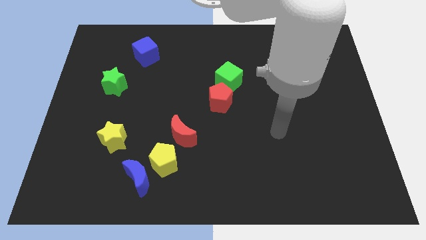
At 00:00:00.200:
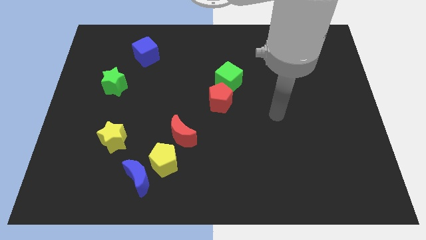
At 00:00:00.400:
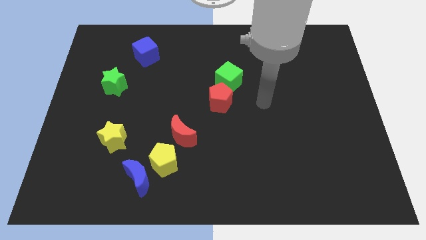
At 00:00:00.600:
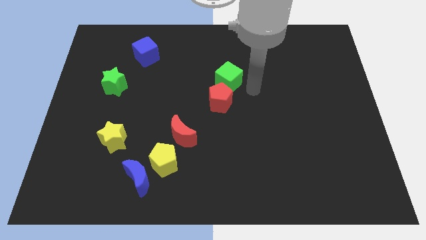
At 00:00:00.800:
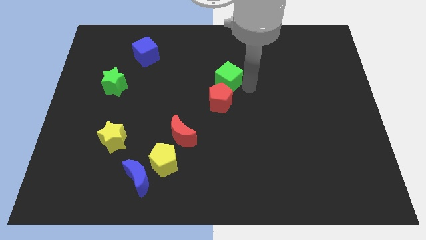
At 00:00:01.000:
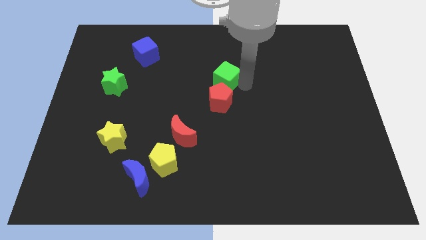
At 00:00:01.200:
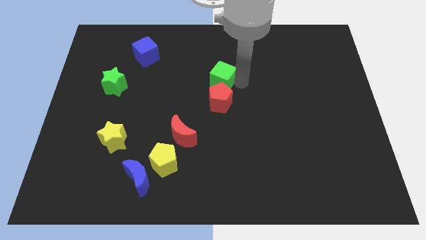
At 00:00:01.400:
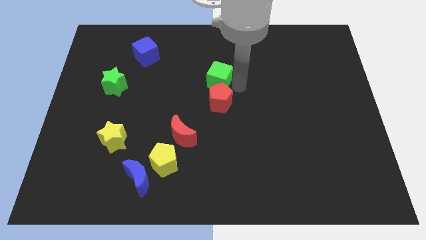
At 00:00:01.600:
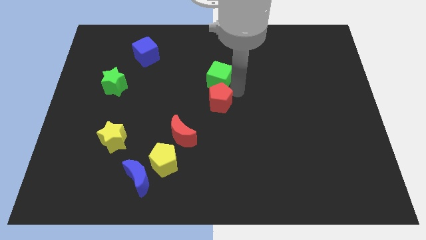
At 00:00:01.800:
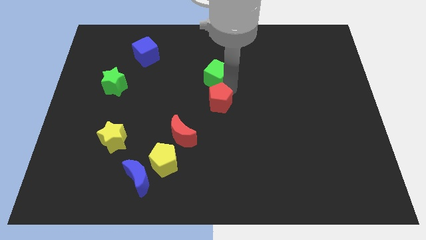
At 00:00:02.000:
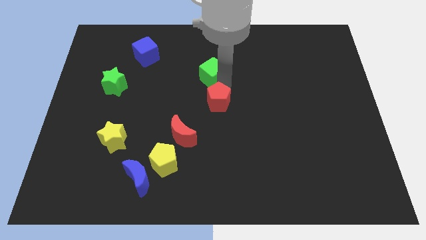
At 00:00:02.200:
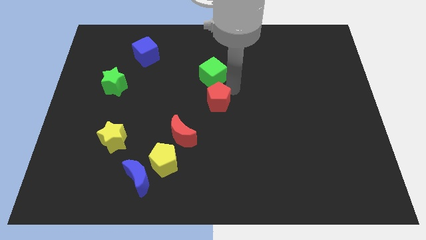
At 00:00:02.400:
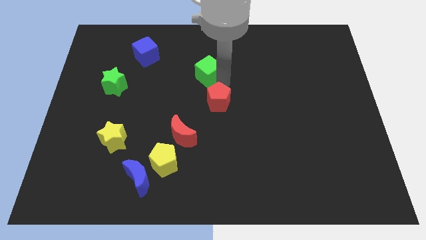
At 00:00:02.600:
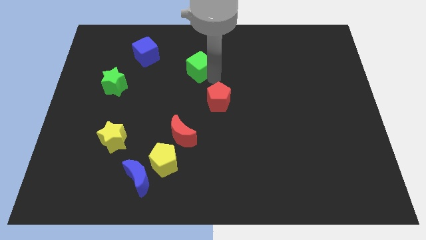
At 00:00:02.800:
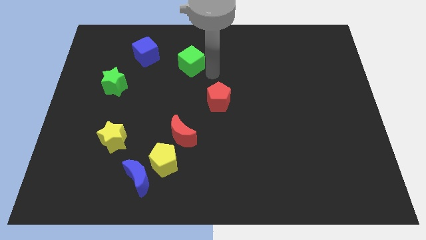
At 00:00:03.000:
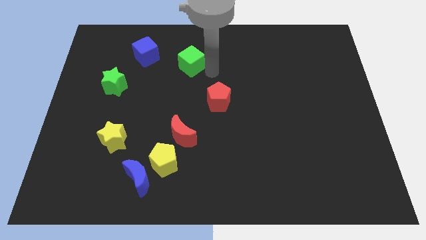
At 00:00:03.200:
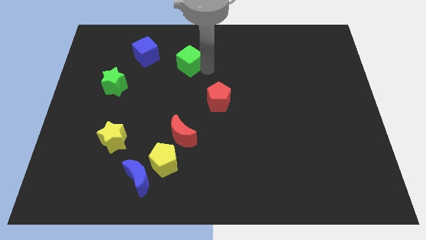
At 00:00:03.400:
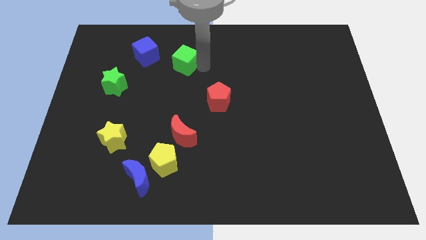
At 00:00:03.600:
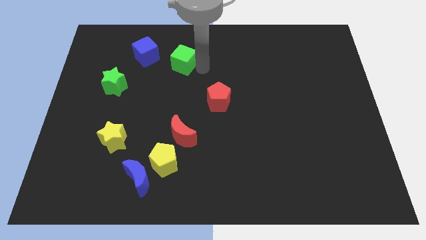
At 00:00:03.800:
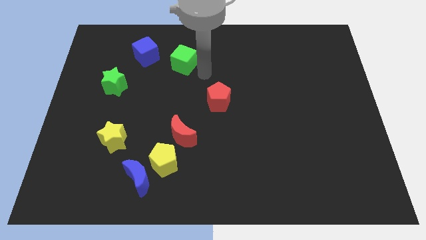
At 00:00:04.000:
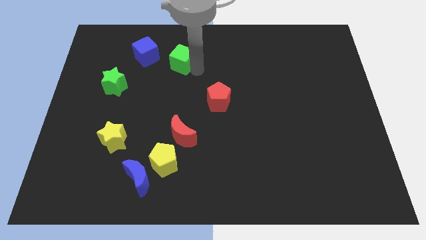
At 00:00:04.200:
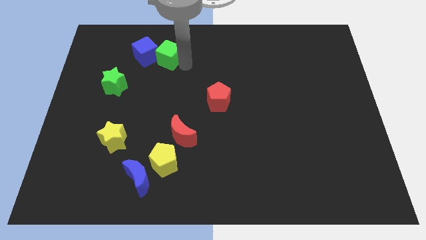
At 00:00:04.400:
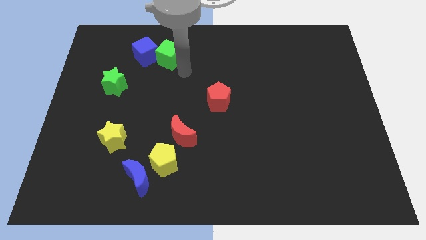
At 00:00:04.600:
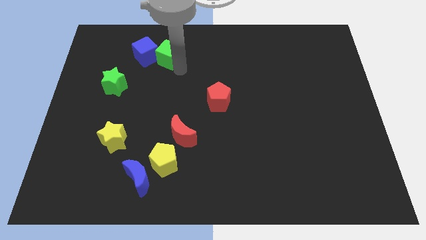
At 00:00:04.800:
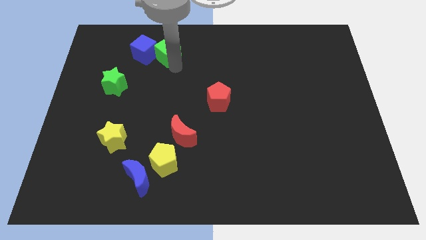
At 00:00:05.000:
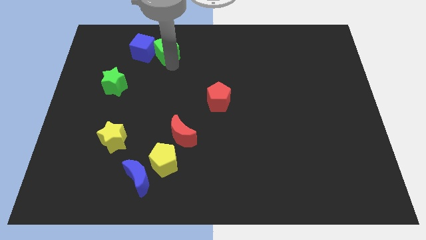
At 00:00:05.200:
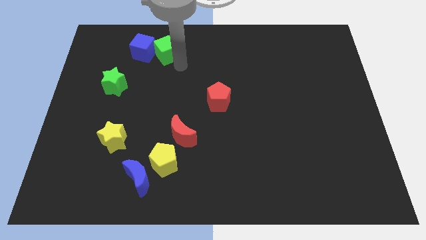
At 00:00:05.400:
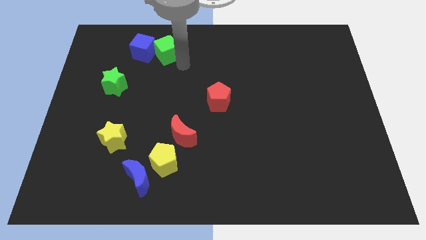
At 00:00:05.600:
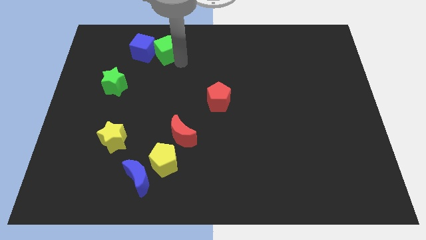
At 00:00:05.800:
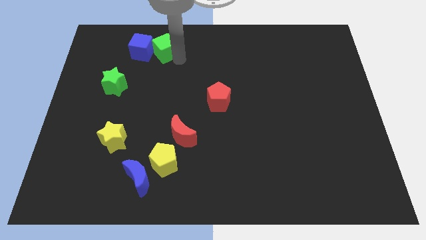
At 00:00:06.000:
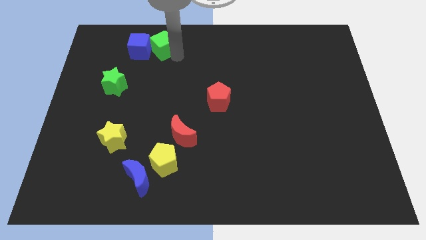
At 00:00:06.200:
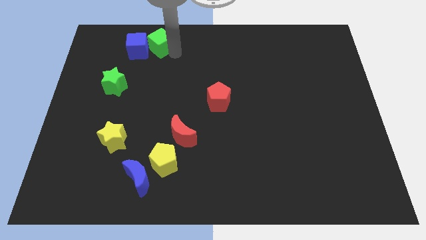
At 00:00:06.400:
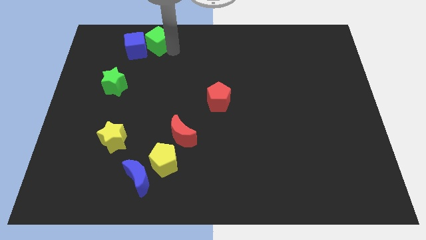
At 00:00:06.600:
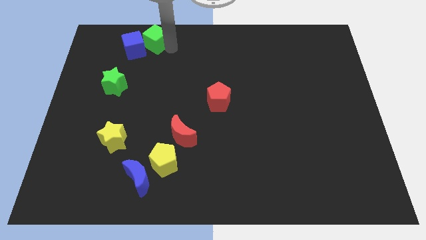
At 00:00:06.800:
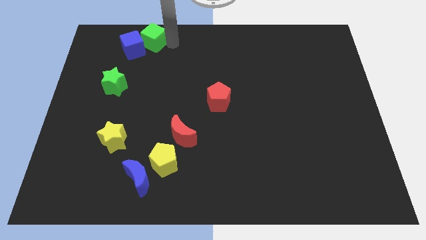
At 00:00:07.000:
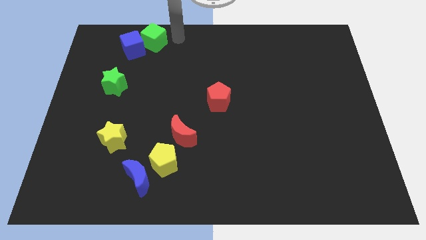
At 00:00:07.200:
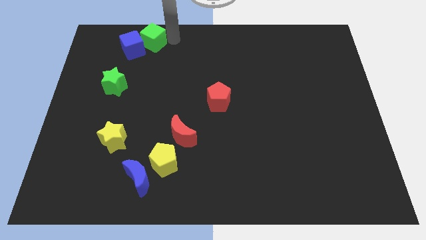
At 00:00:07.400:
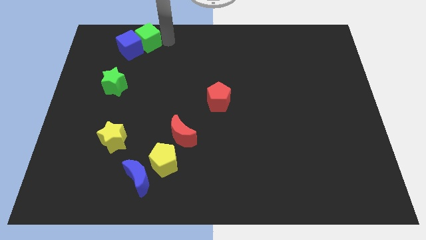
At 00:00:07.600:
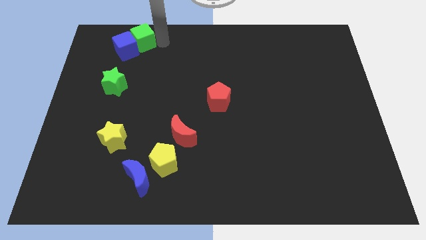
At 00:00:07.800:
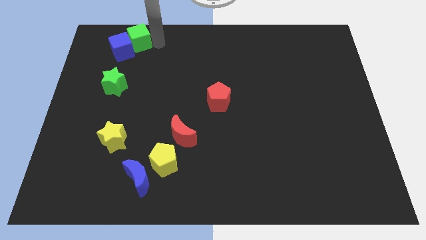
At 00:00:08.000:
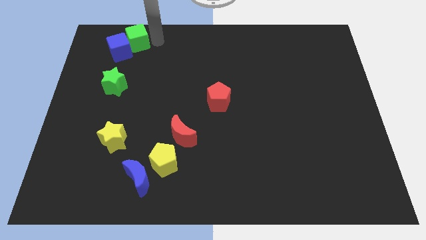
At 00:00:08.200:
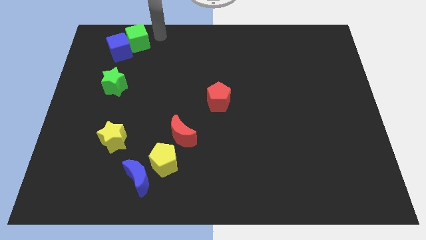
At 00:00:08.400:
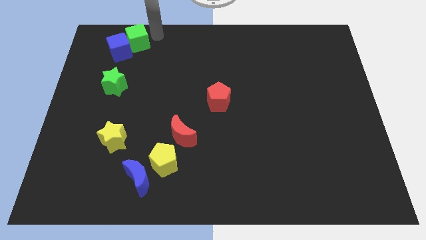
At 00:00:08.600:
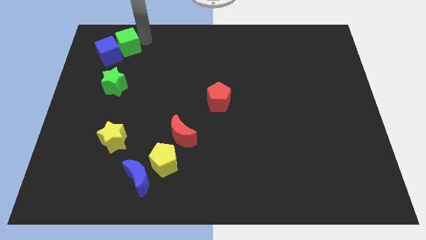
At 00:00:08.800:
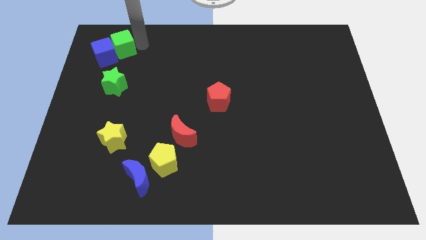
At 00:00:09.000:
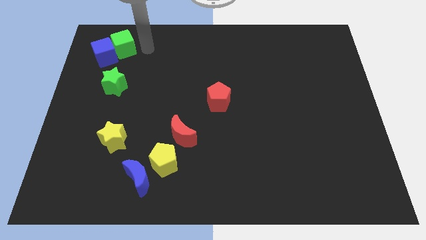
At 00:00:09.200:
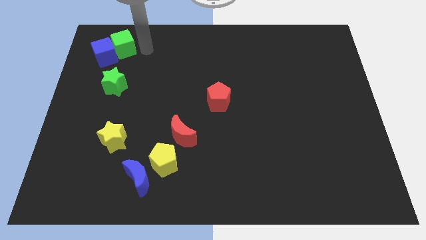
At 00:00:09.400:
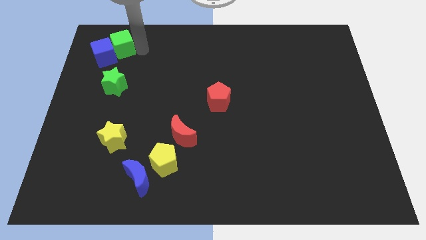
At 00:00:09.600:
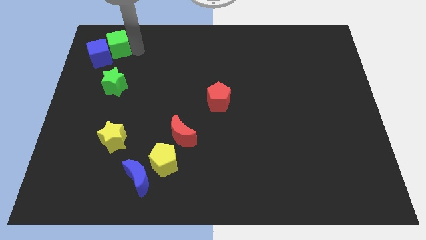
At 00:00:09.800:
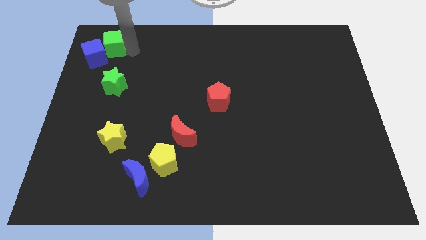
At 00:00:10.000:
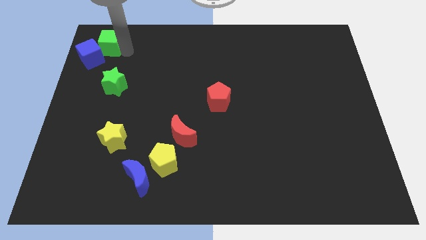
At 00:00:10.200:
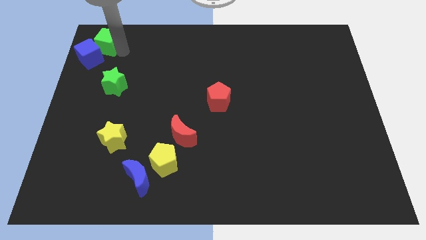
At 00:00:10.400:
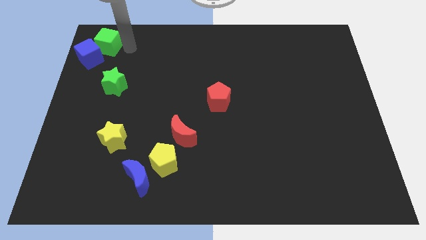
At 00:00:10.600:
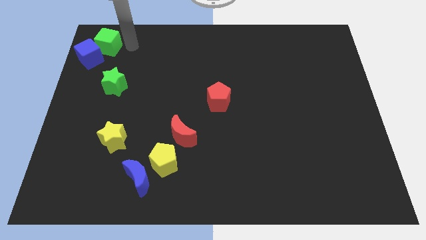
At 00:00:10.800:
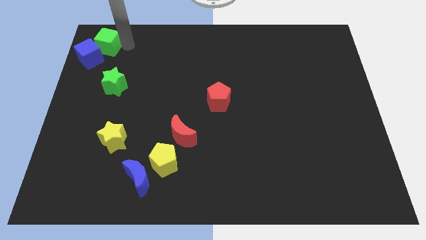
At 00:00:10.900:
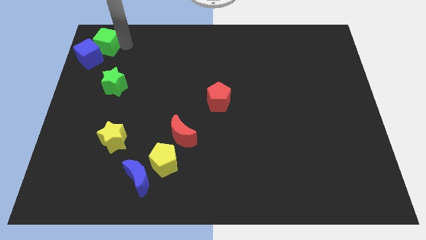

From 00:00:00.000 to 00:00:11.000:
push the green cube to the upper left corner

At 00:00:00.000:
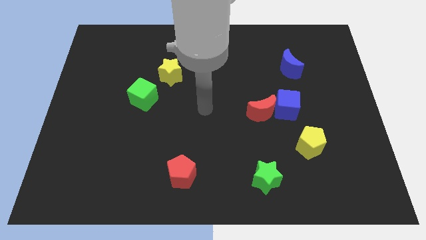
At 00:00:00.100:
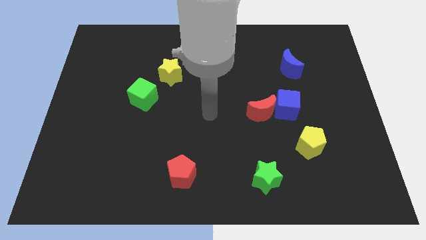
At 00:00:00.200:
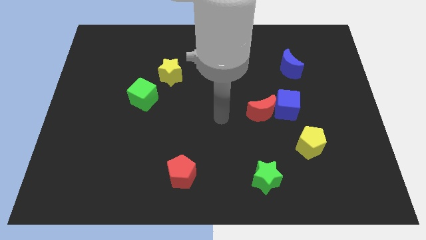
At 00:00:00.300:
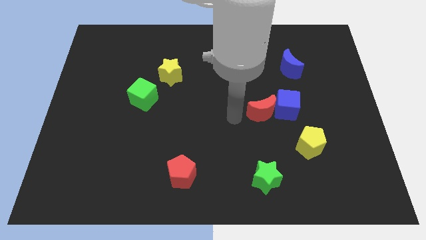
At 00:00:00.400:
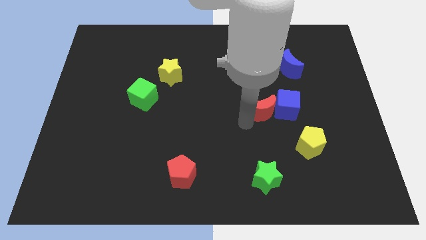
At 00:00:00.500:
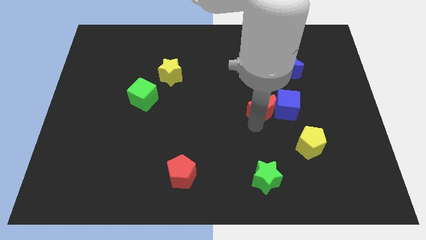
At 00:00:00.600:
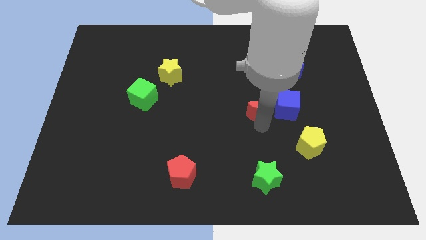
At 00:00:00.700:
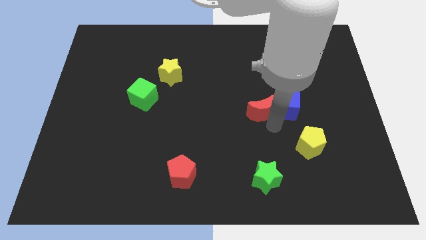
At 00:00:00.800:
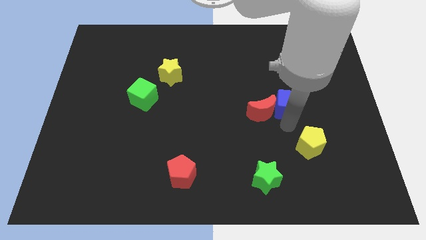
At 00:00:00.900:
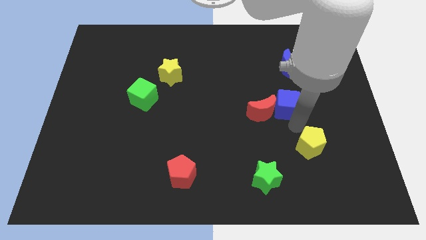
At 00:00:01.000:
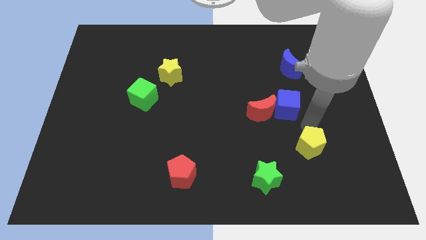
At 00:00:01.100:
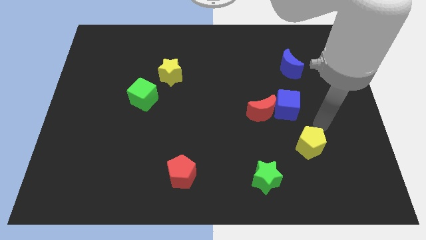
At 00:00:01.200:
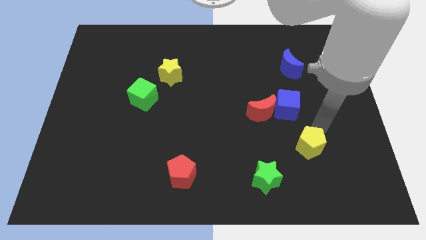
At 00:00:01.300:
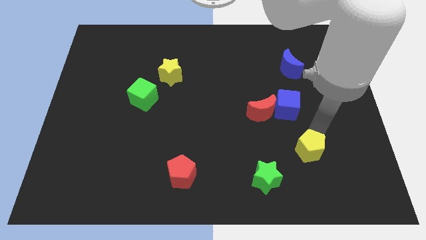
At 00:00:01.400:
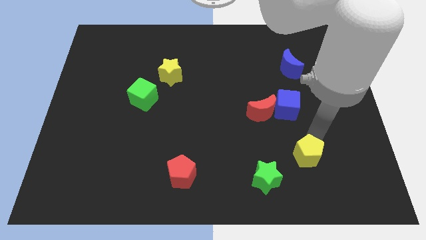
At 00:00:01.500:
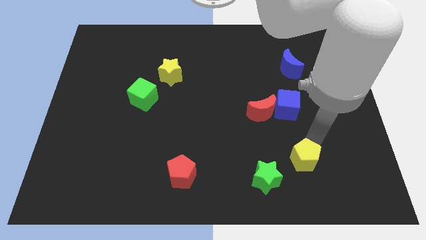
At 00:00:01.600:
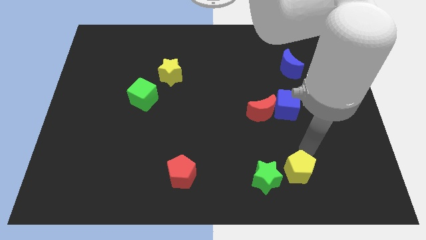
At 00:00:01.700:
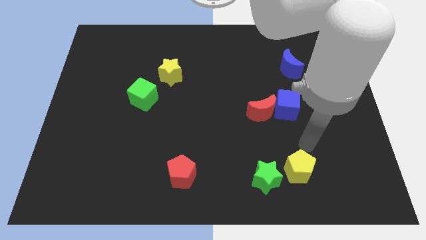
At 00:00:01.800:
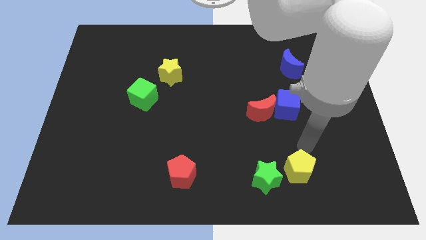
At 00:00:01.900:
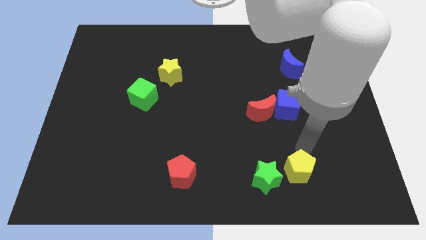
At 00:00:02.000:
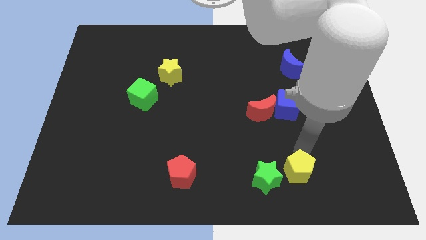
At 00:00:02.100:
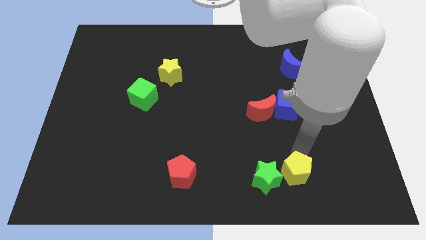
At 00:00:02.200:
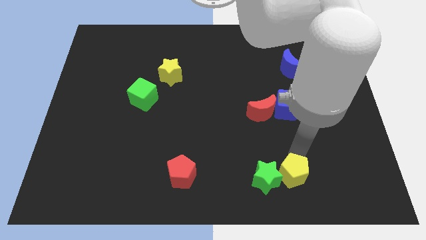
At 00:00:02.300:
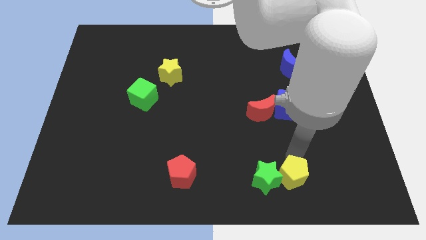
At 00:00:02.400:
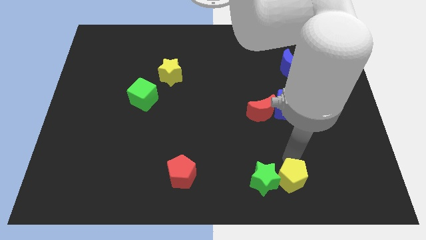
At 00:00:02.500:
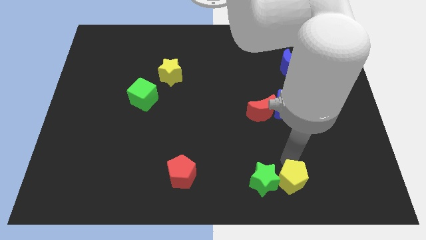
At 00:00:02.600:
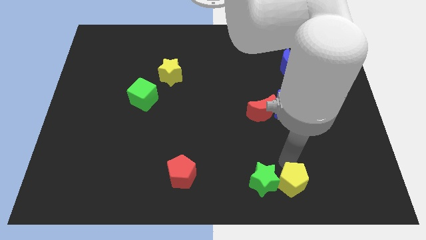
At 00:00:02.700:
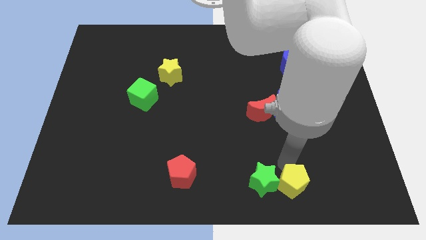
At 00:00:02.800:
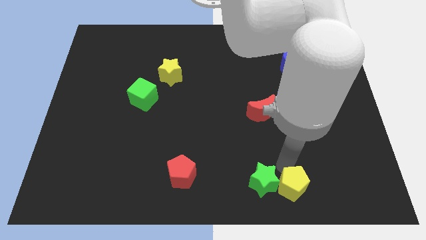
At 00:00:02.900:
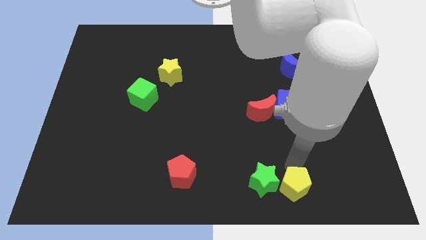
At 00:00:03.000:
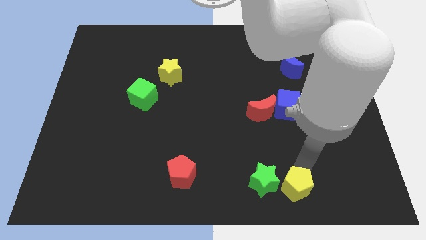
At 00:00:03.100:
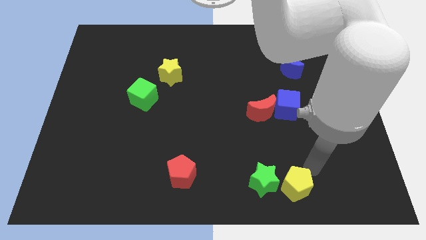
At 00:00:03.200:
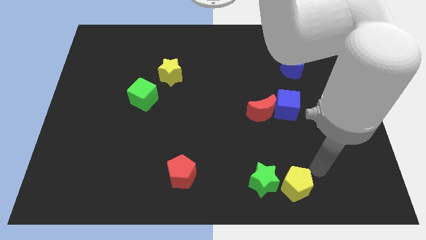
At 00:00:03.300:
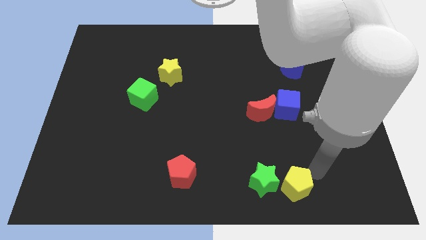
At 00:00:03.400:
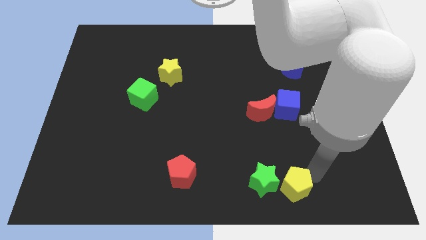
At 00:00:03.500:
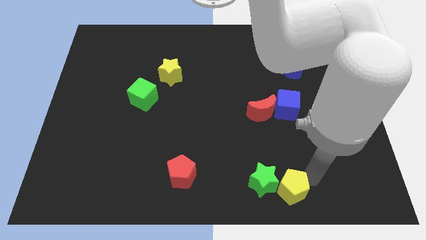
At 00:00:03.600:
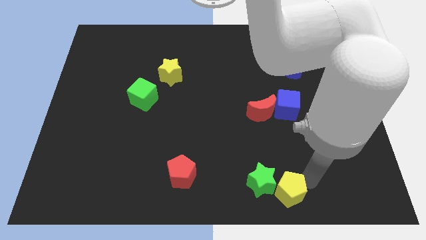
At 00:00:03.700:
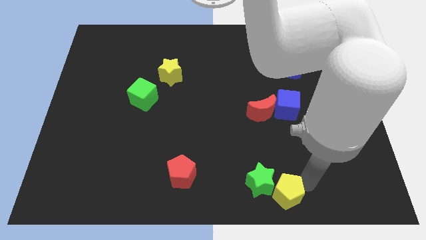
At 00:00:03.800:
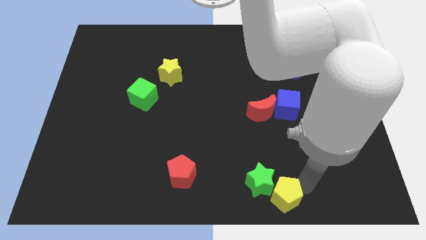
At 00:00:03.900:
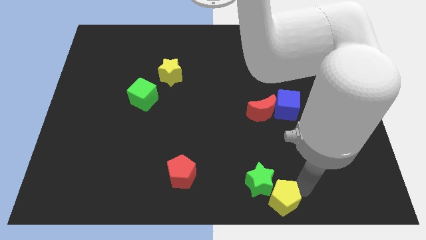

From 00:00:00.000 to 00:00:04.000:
move the yellow pentagon to the bottom
